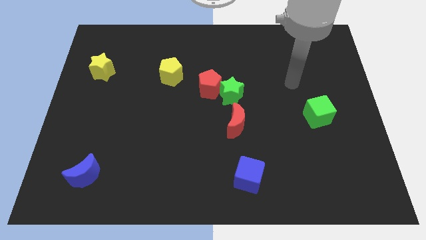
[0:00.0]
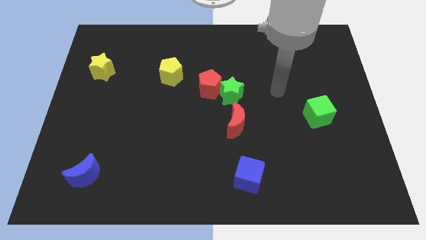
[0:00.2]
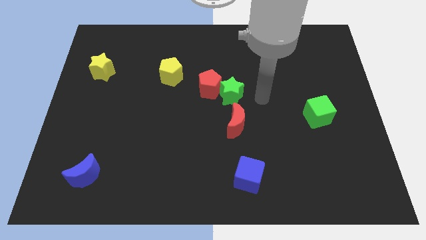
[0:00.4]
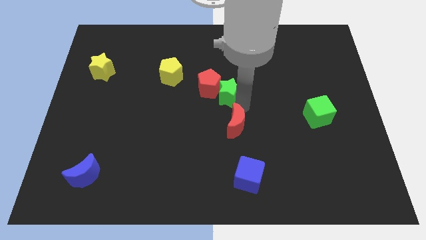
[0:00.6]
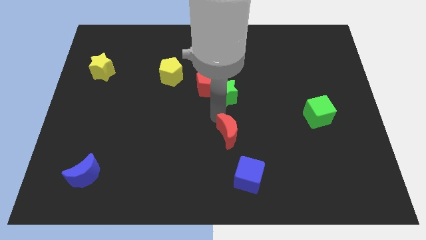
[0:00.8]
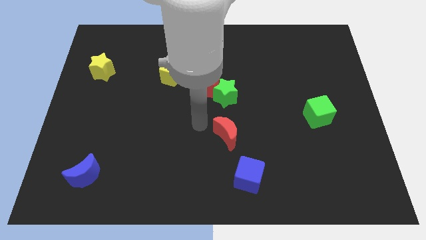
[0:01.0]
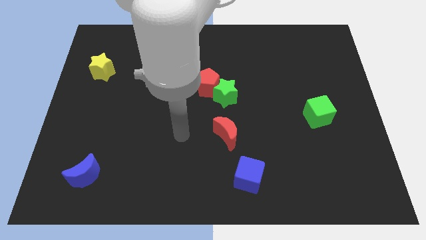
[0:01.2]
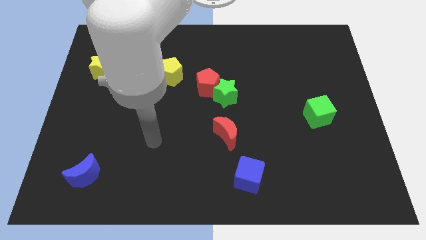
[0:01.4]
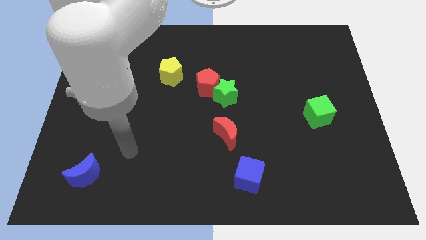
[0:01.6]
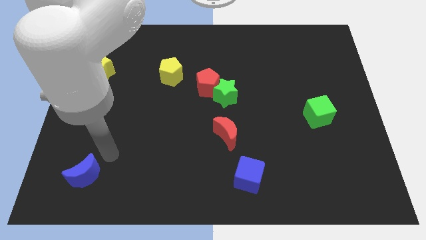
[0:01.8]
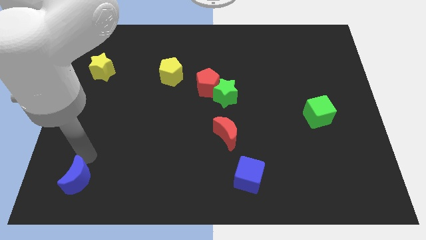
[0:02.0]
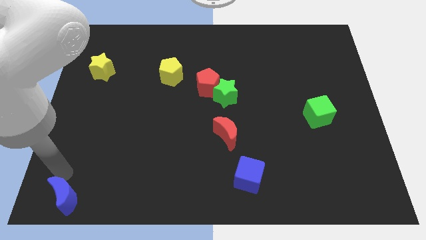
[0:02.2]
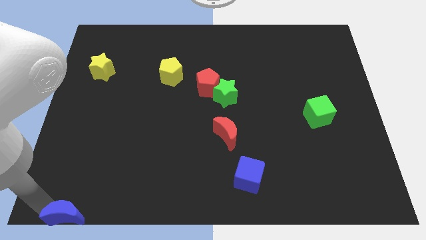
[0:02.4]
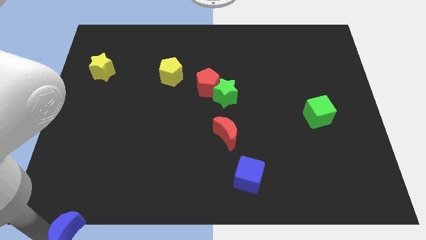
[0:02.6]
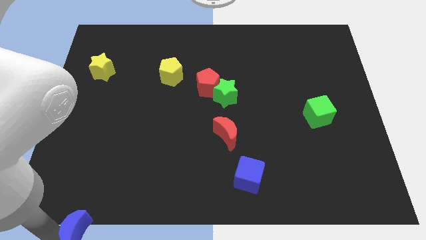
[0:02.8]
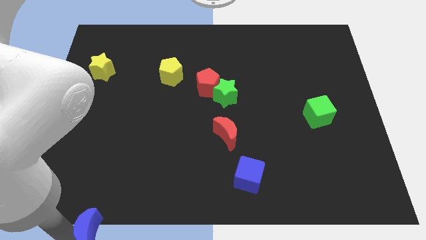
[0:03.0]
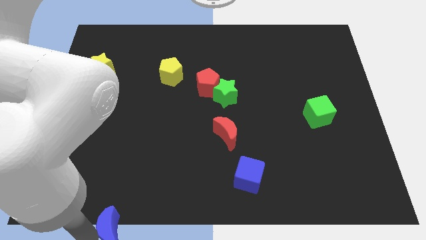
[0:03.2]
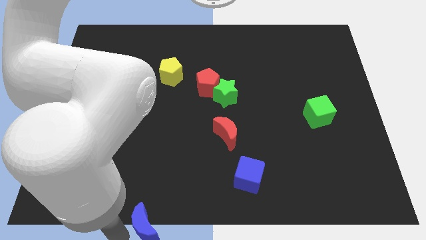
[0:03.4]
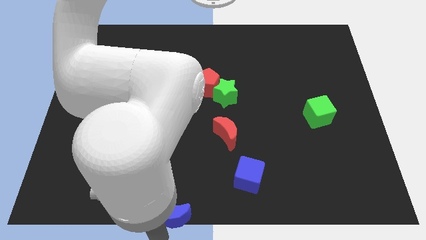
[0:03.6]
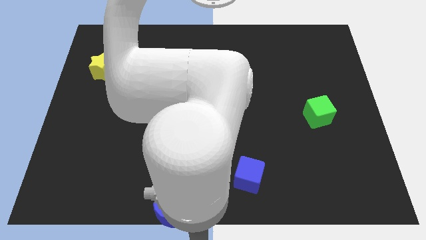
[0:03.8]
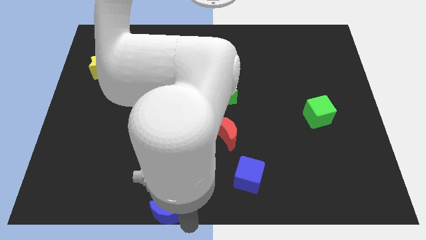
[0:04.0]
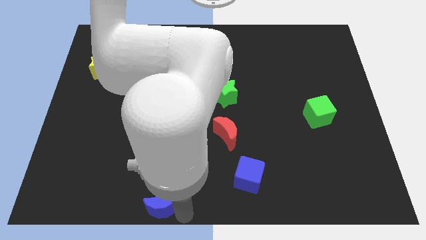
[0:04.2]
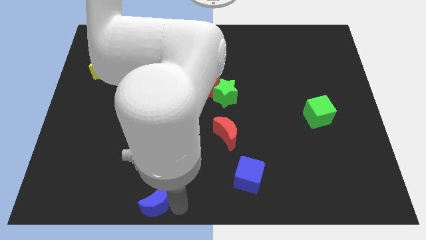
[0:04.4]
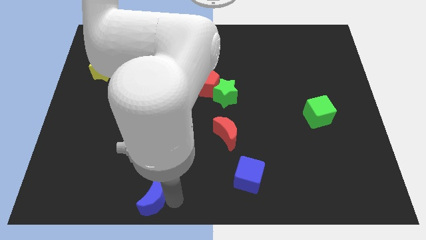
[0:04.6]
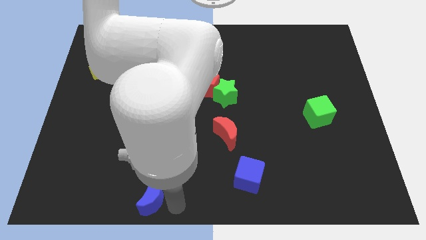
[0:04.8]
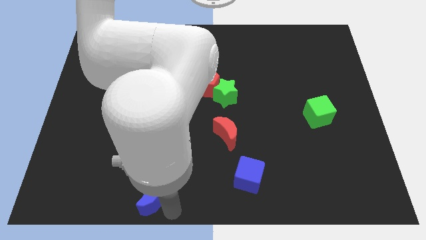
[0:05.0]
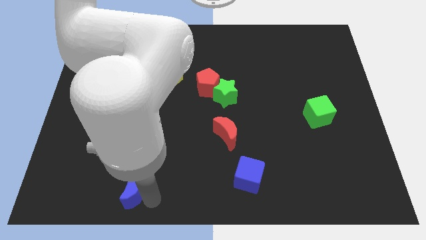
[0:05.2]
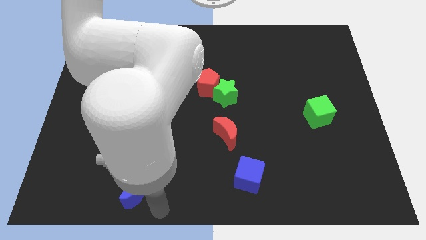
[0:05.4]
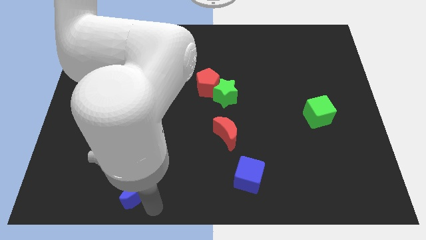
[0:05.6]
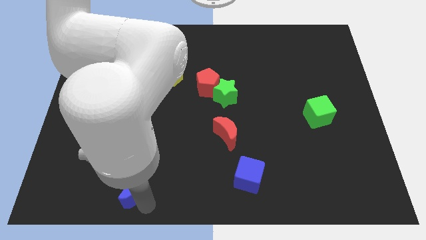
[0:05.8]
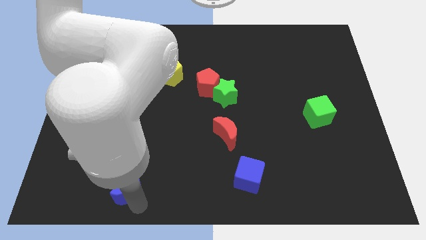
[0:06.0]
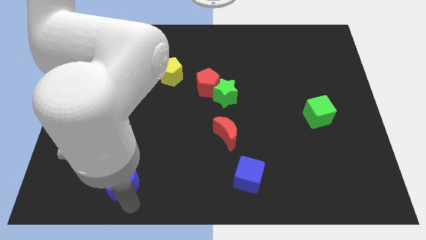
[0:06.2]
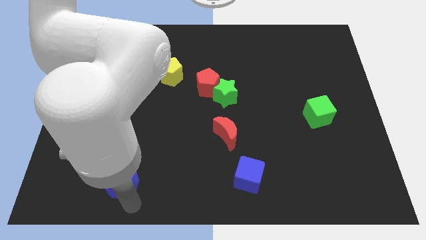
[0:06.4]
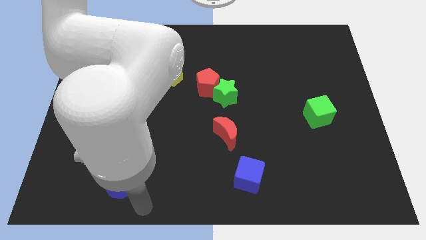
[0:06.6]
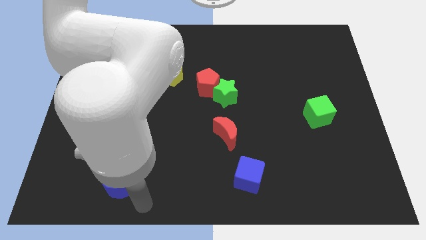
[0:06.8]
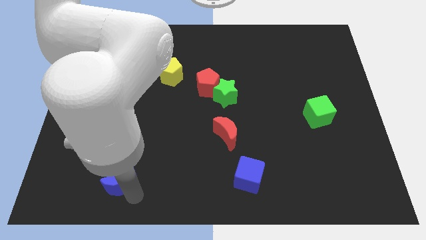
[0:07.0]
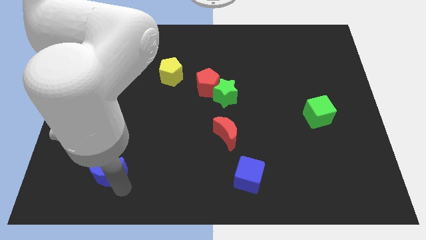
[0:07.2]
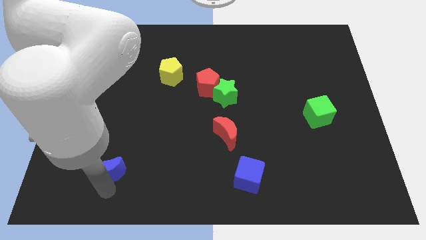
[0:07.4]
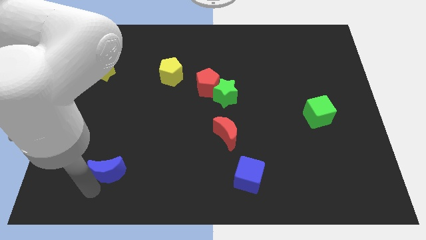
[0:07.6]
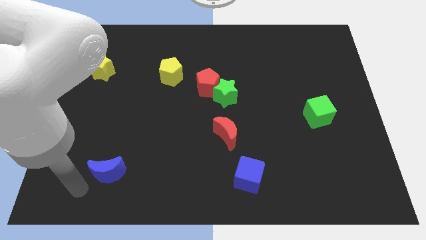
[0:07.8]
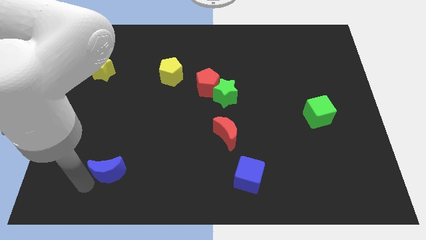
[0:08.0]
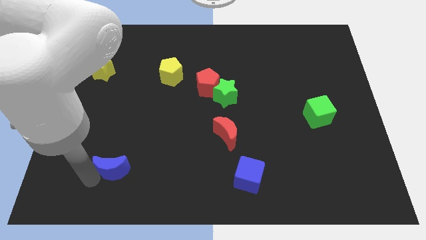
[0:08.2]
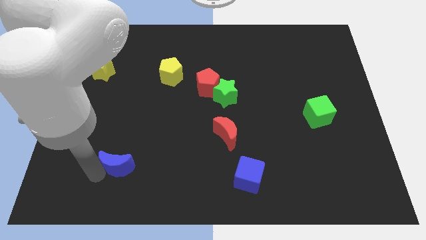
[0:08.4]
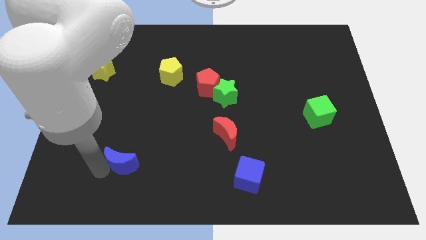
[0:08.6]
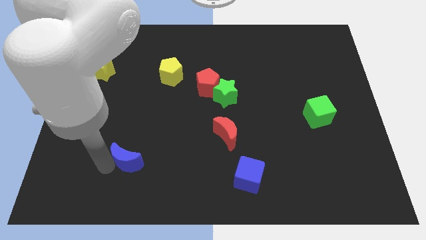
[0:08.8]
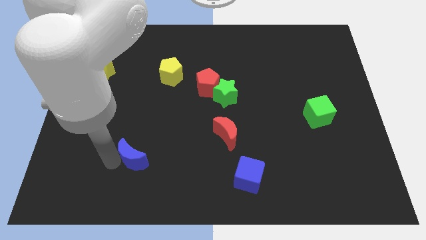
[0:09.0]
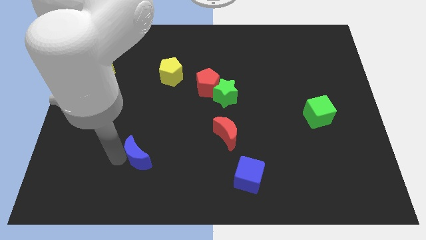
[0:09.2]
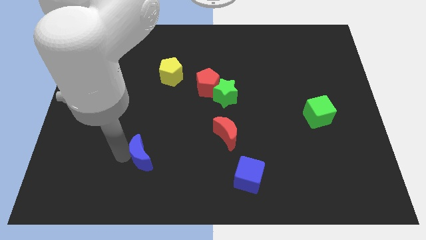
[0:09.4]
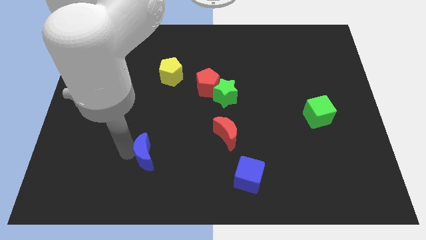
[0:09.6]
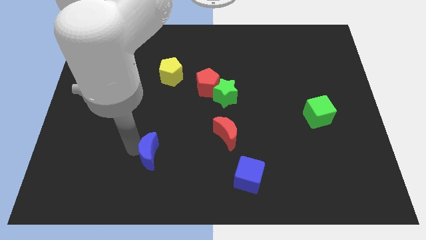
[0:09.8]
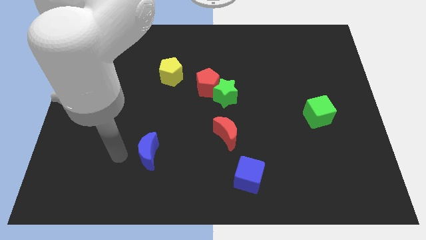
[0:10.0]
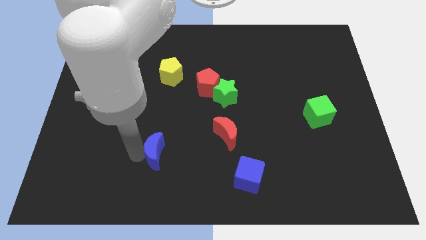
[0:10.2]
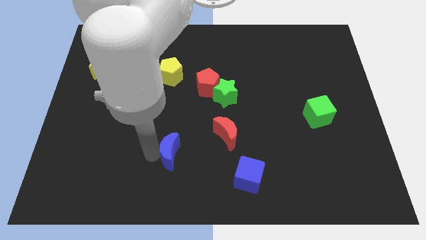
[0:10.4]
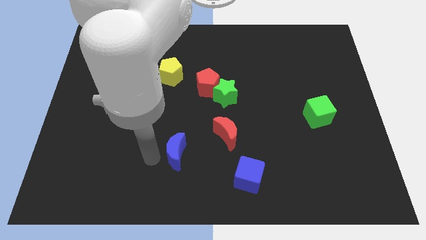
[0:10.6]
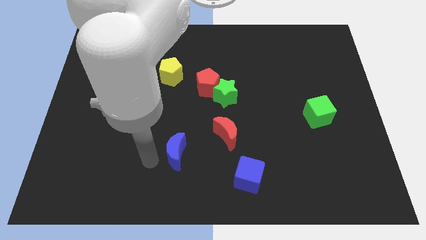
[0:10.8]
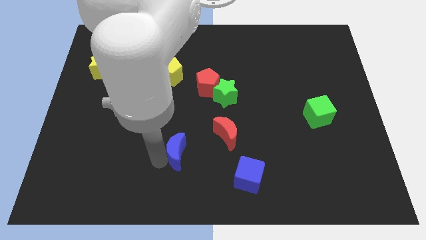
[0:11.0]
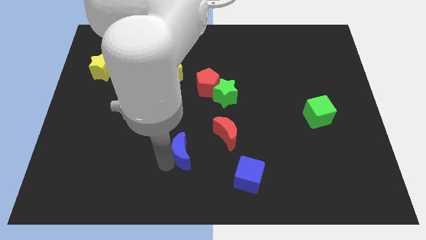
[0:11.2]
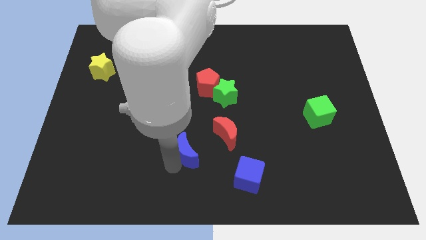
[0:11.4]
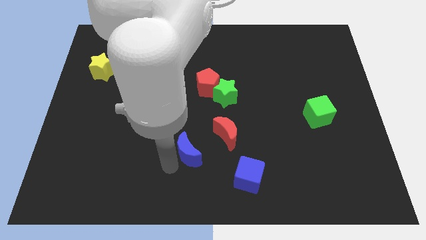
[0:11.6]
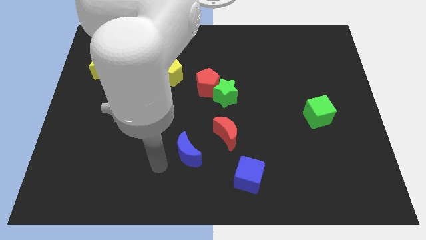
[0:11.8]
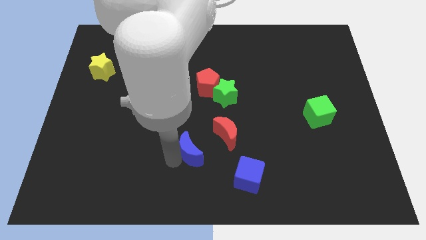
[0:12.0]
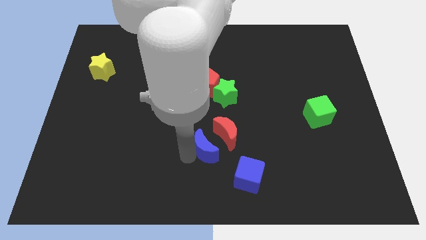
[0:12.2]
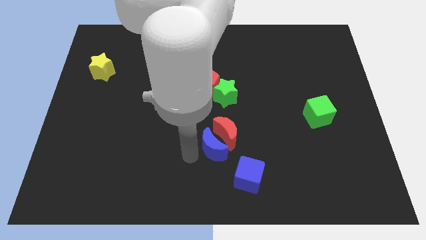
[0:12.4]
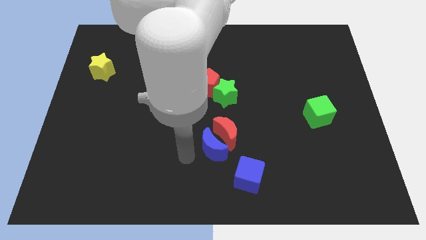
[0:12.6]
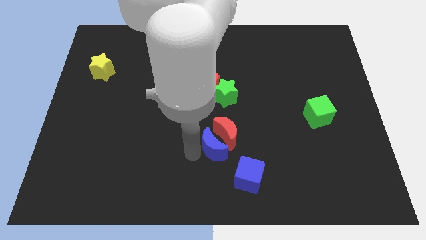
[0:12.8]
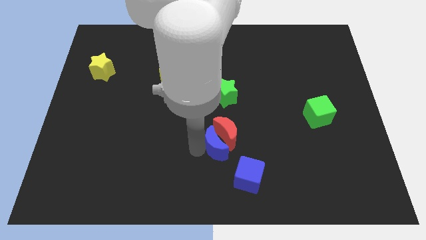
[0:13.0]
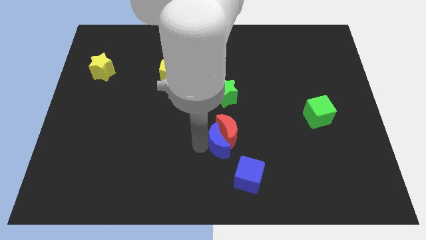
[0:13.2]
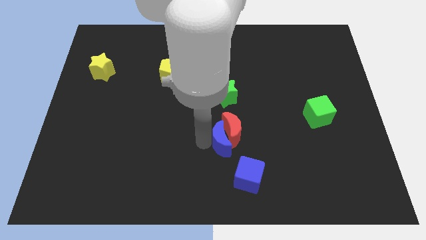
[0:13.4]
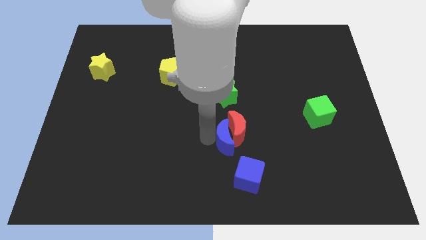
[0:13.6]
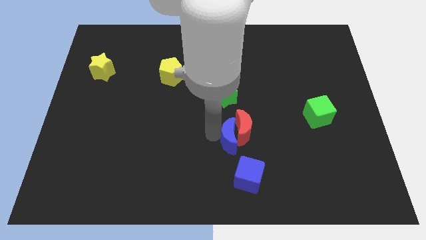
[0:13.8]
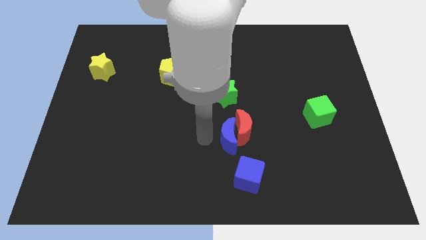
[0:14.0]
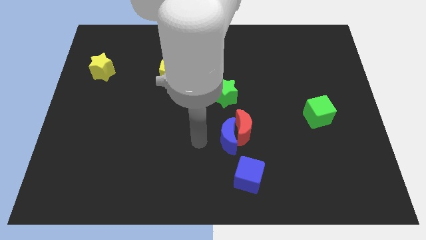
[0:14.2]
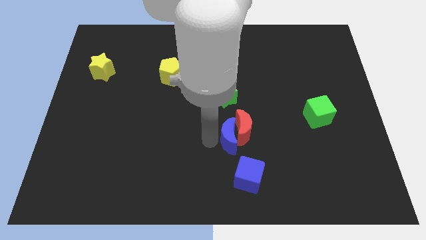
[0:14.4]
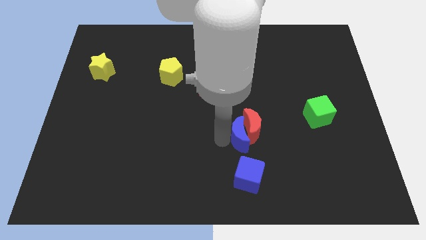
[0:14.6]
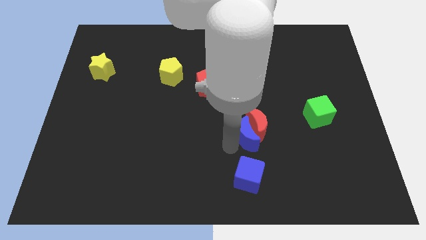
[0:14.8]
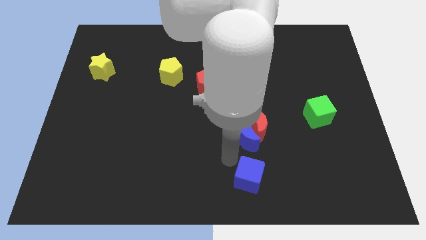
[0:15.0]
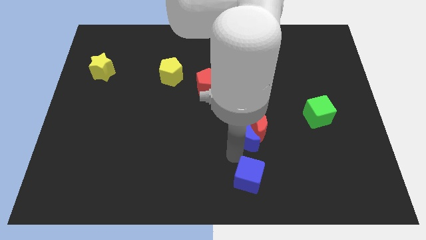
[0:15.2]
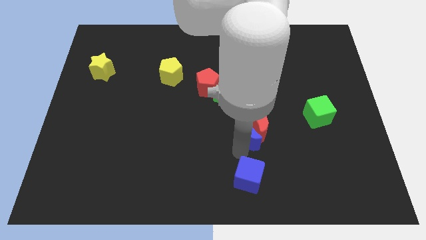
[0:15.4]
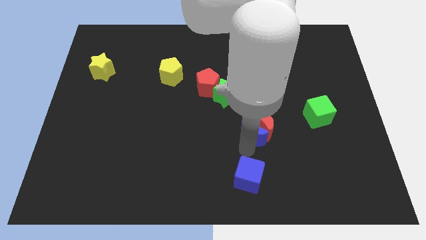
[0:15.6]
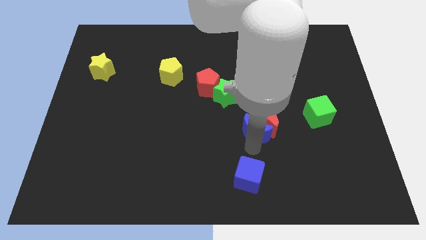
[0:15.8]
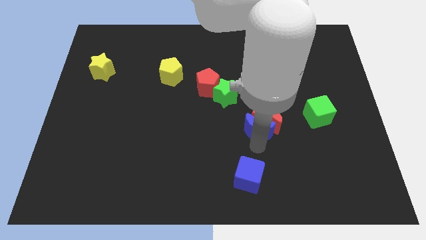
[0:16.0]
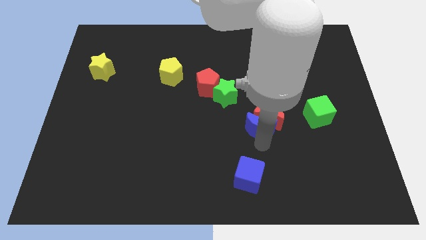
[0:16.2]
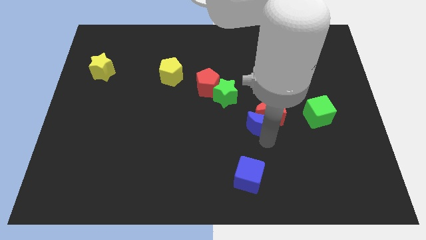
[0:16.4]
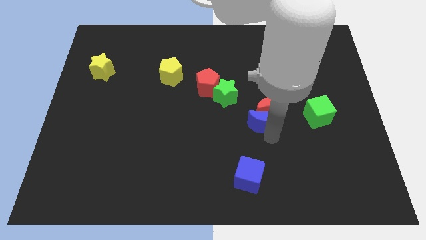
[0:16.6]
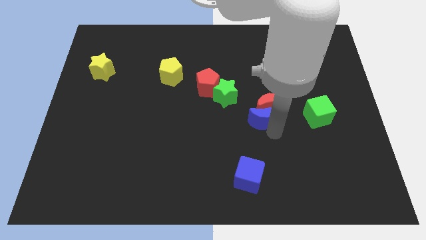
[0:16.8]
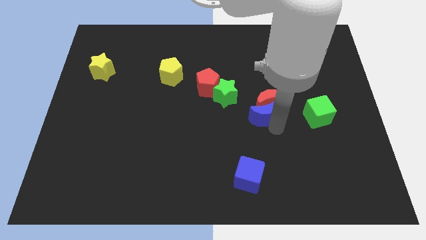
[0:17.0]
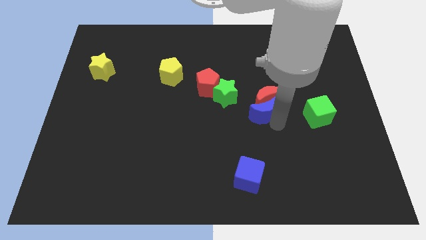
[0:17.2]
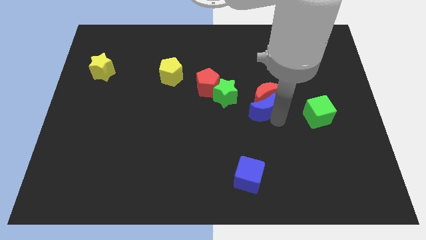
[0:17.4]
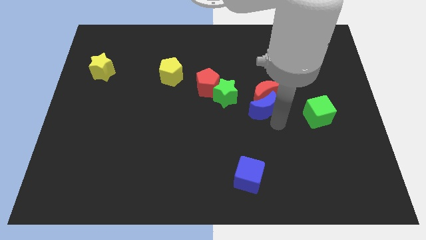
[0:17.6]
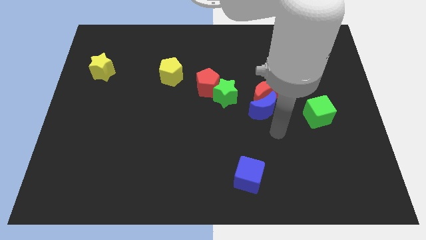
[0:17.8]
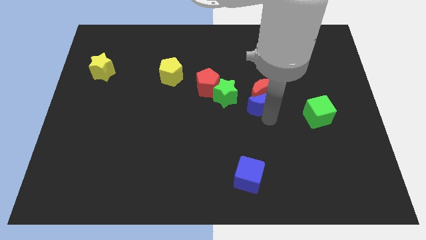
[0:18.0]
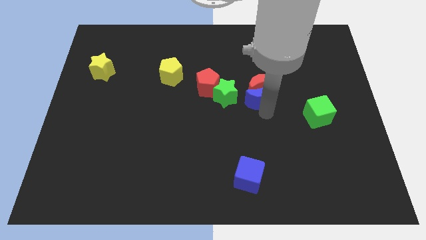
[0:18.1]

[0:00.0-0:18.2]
push the blue moon to the right of the red pentagon
